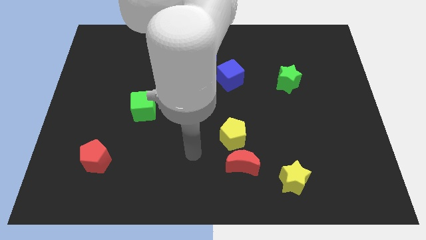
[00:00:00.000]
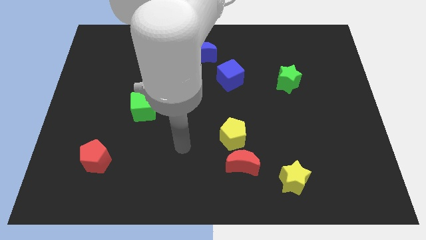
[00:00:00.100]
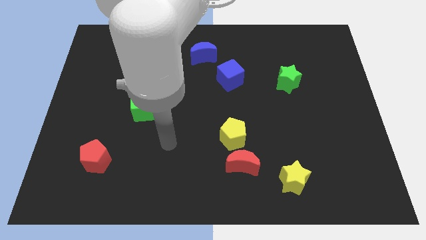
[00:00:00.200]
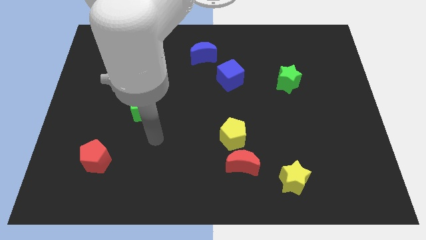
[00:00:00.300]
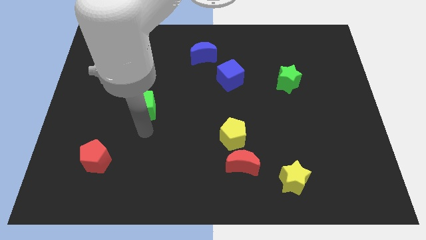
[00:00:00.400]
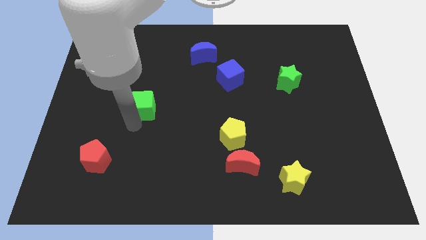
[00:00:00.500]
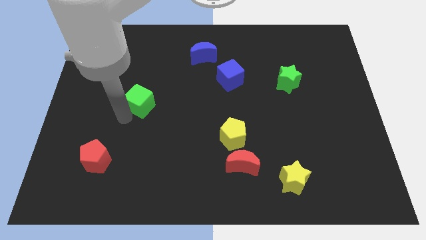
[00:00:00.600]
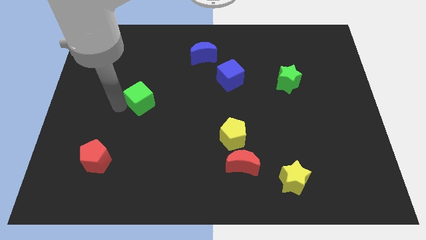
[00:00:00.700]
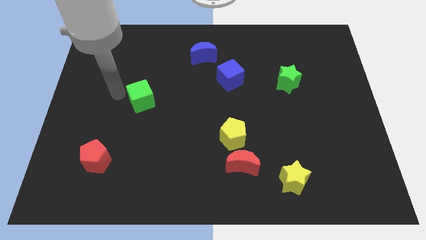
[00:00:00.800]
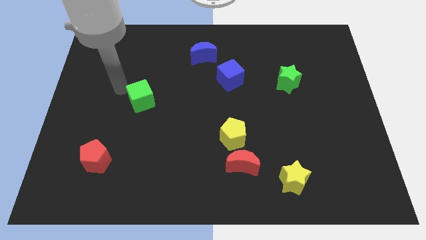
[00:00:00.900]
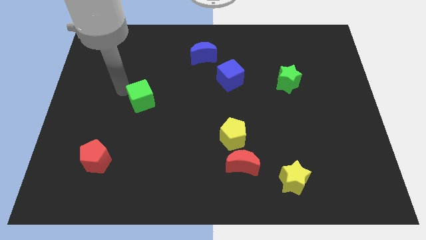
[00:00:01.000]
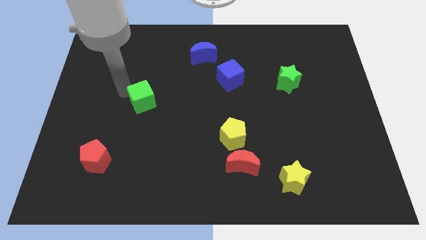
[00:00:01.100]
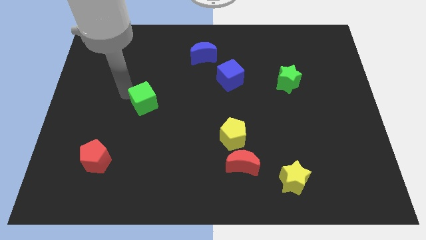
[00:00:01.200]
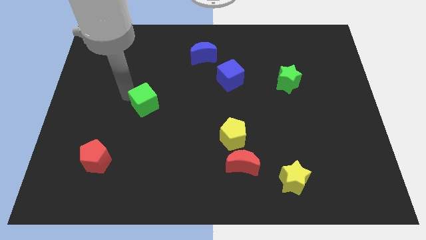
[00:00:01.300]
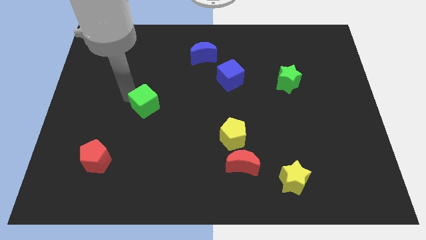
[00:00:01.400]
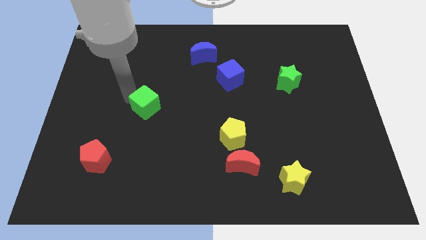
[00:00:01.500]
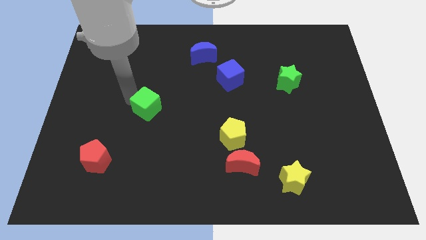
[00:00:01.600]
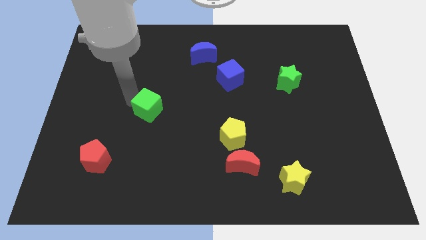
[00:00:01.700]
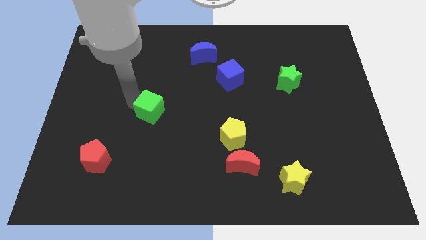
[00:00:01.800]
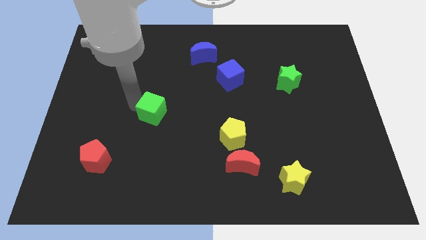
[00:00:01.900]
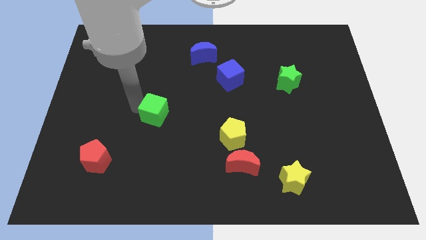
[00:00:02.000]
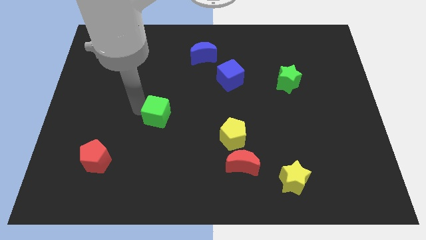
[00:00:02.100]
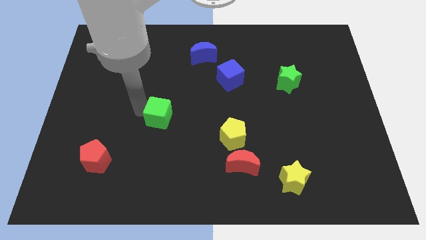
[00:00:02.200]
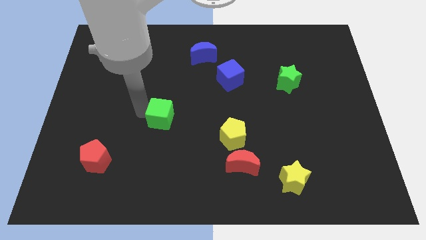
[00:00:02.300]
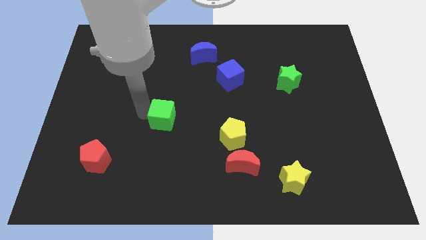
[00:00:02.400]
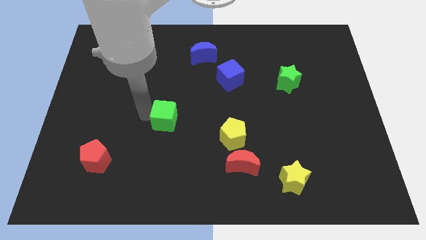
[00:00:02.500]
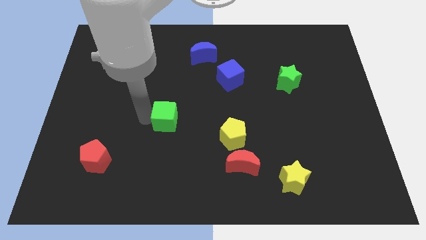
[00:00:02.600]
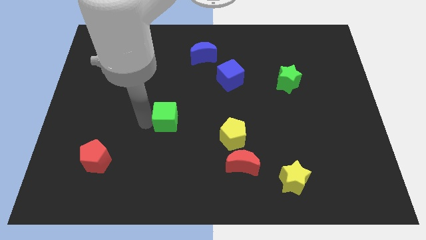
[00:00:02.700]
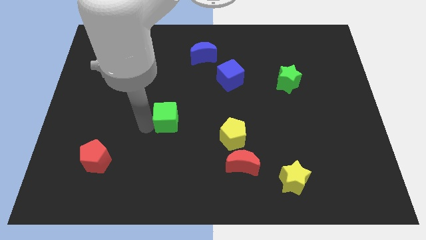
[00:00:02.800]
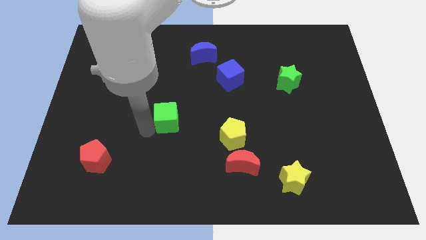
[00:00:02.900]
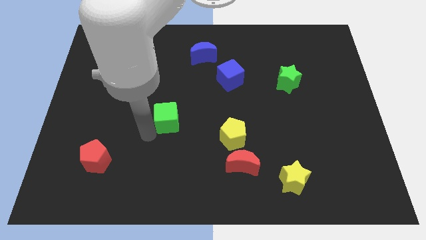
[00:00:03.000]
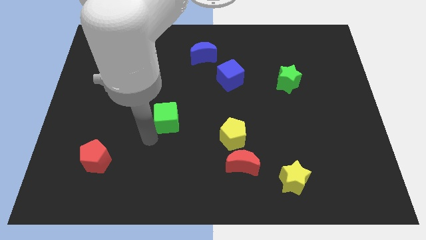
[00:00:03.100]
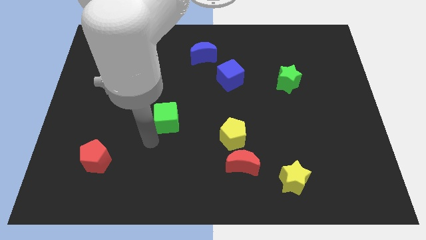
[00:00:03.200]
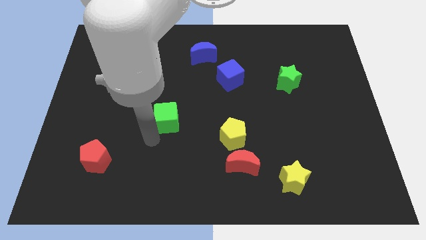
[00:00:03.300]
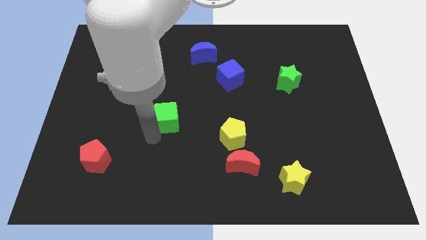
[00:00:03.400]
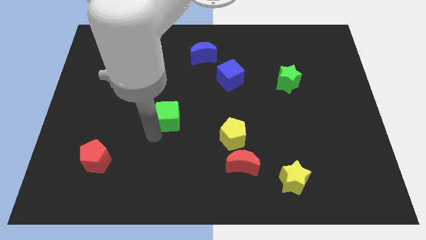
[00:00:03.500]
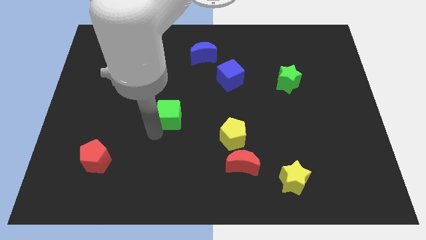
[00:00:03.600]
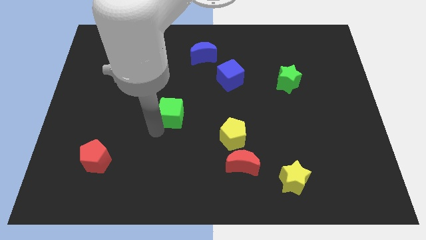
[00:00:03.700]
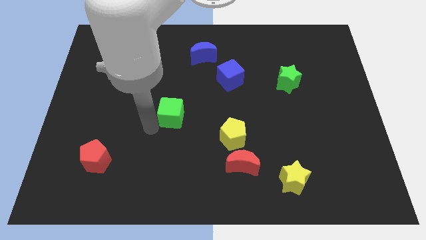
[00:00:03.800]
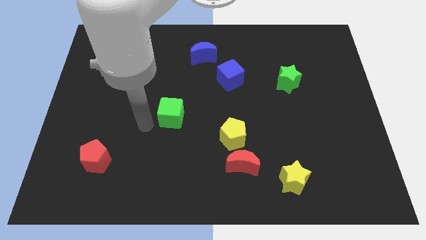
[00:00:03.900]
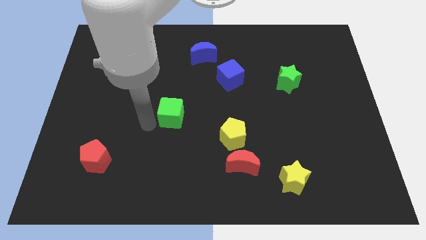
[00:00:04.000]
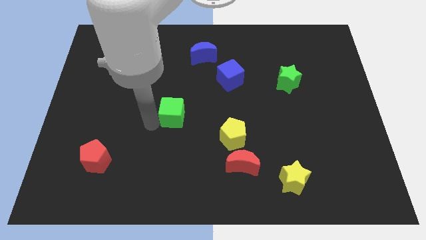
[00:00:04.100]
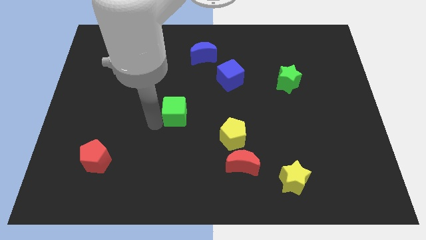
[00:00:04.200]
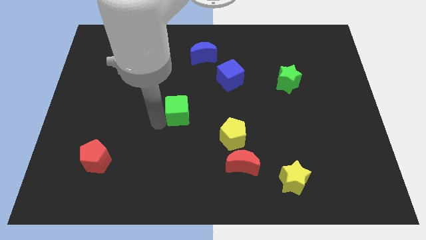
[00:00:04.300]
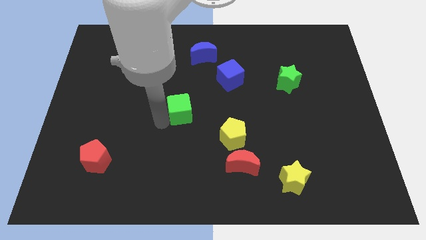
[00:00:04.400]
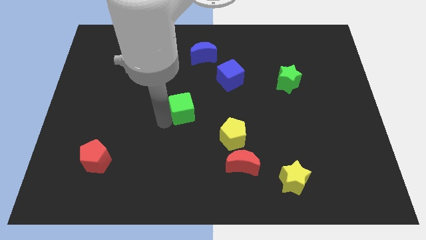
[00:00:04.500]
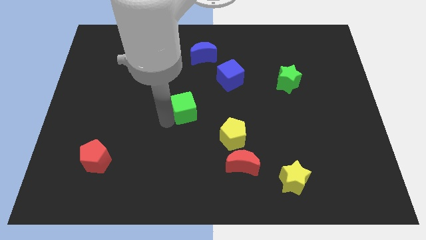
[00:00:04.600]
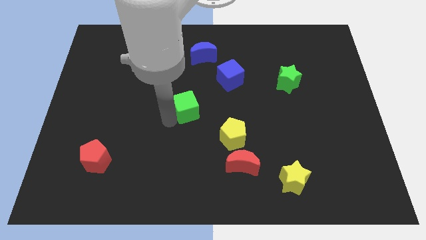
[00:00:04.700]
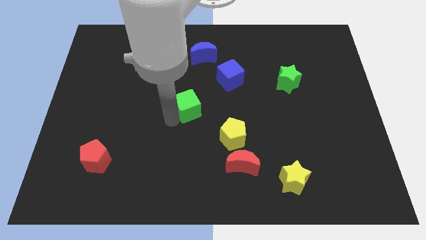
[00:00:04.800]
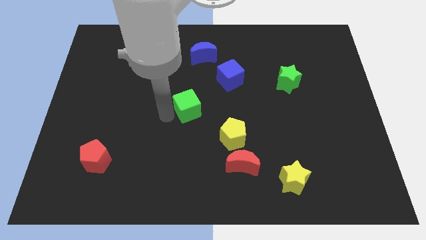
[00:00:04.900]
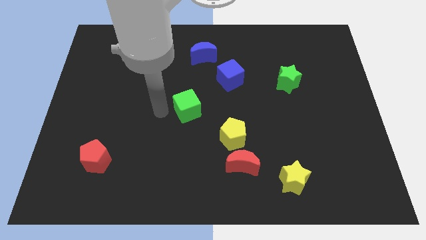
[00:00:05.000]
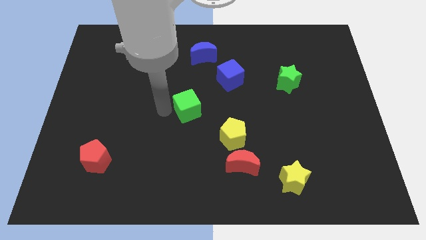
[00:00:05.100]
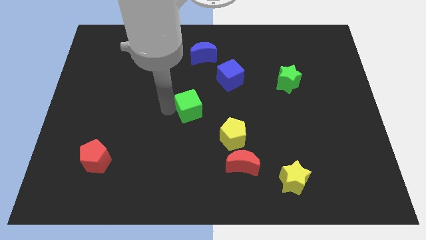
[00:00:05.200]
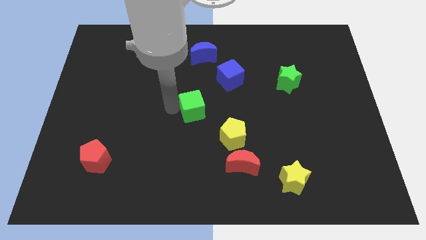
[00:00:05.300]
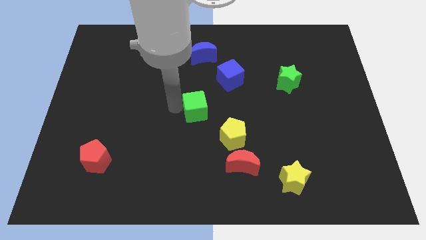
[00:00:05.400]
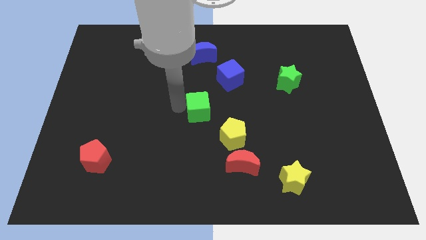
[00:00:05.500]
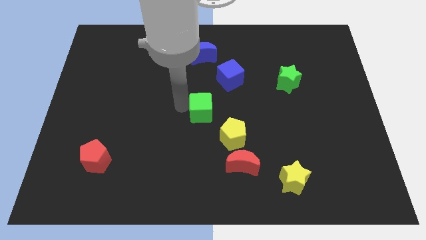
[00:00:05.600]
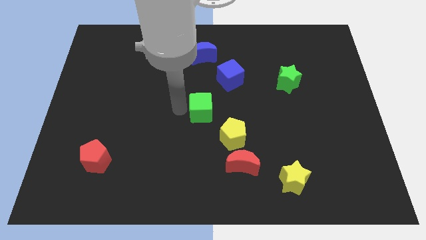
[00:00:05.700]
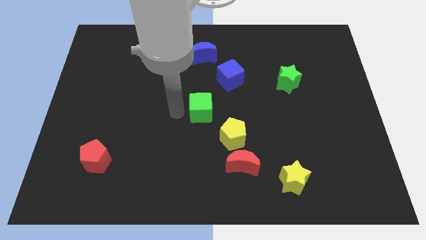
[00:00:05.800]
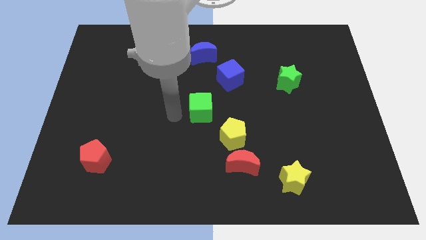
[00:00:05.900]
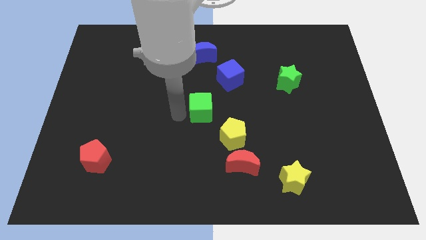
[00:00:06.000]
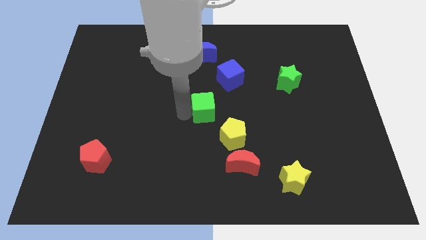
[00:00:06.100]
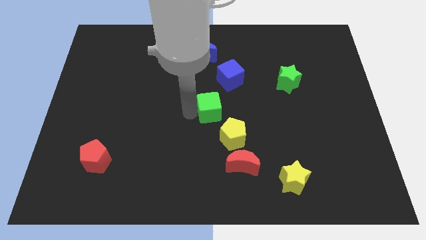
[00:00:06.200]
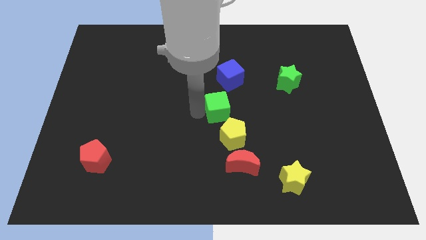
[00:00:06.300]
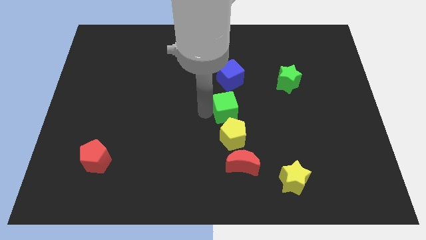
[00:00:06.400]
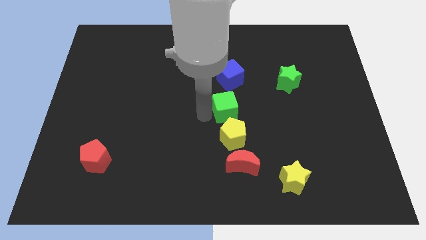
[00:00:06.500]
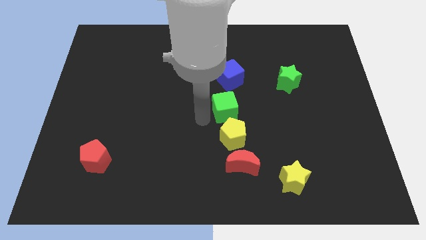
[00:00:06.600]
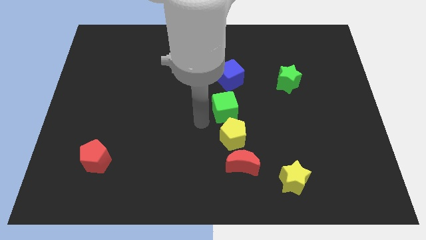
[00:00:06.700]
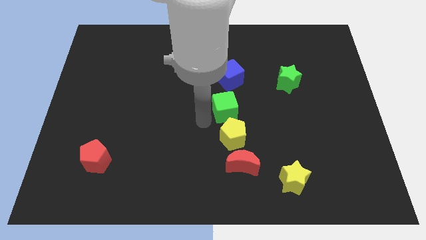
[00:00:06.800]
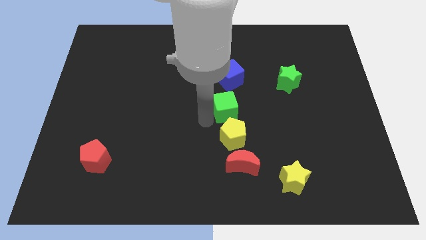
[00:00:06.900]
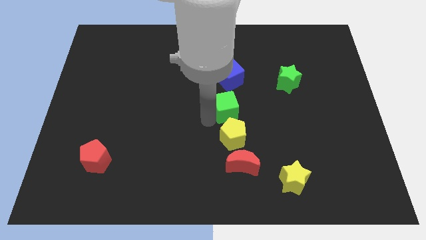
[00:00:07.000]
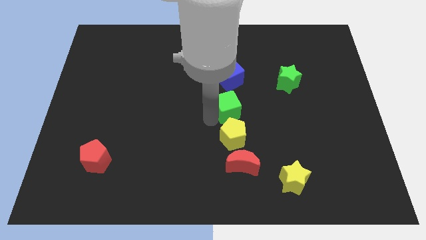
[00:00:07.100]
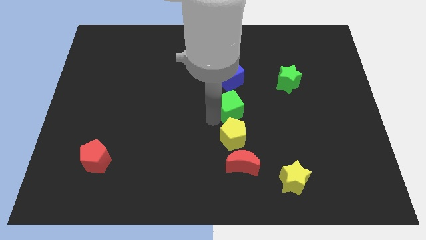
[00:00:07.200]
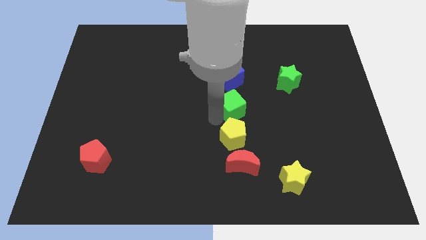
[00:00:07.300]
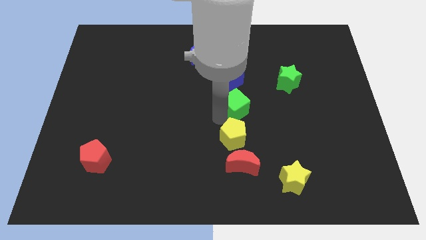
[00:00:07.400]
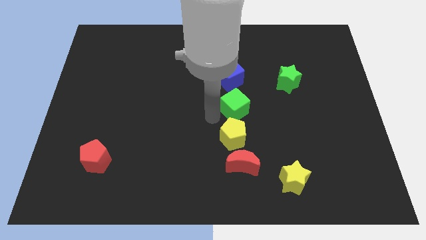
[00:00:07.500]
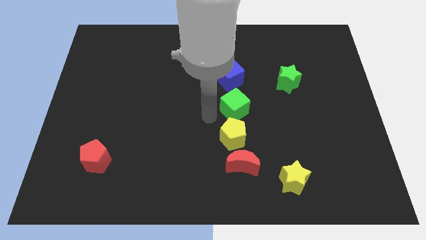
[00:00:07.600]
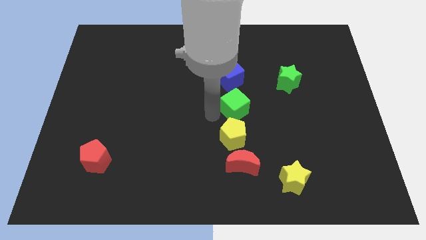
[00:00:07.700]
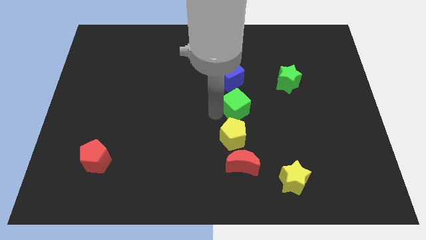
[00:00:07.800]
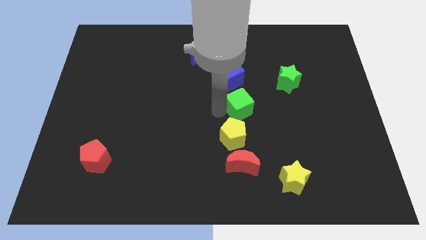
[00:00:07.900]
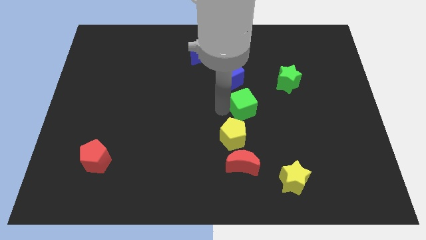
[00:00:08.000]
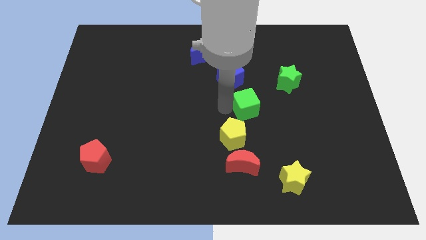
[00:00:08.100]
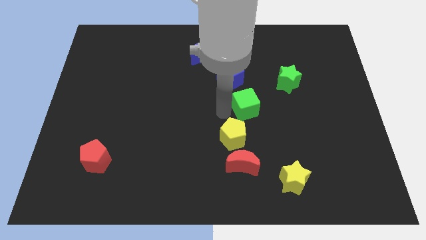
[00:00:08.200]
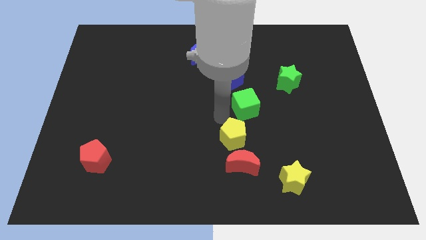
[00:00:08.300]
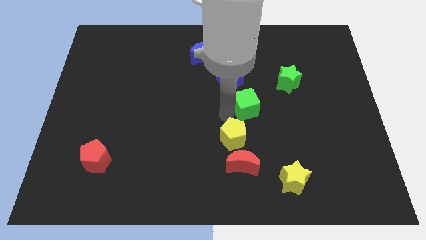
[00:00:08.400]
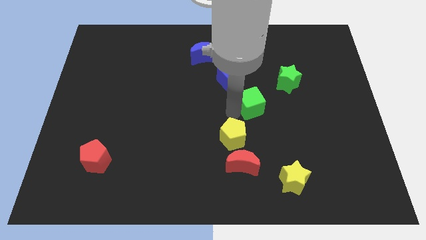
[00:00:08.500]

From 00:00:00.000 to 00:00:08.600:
move the green cube to the bottom left of the green star
